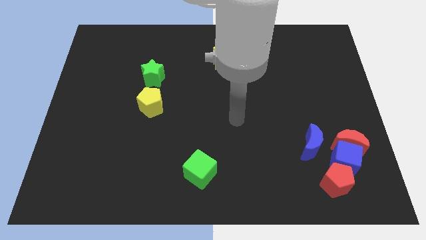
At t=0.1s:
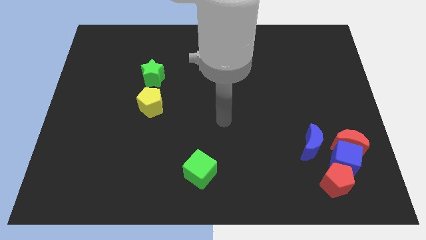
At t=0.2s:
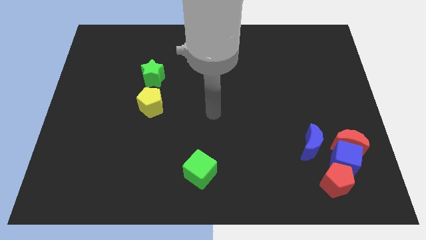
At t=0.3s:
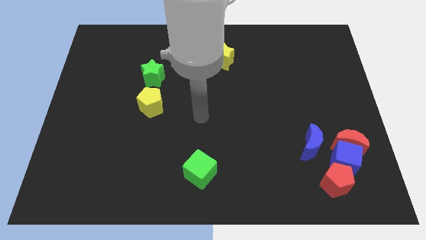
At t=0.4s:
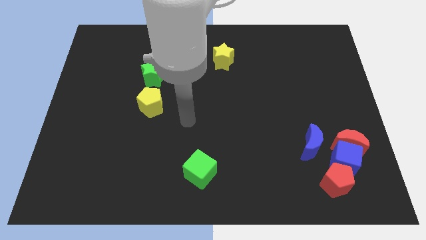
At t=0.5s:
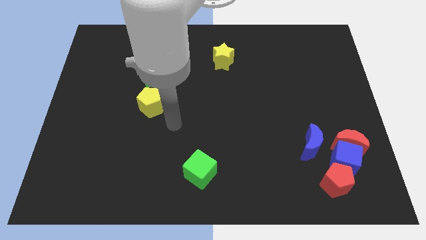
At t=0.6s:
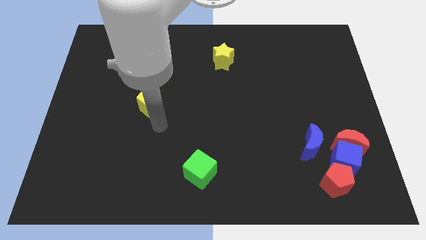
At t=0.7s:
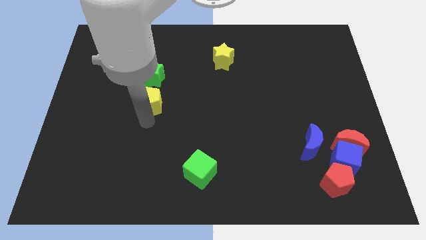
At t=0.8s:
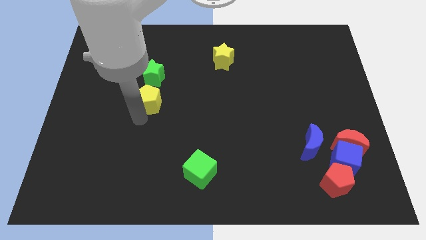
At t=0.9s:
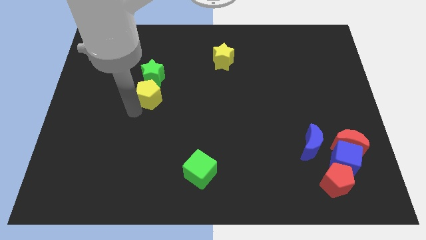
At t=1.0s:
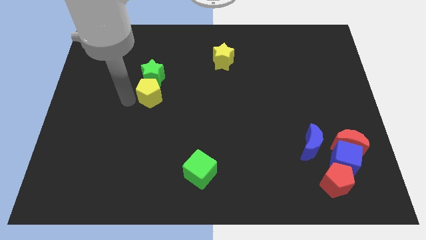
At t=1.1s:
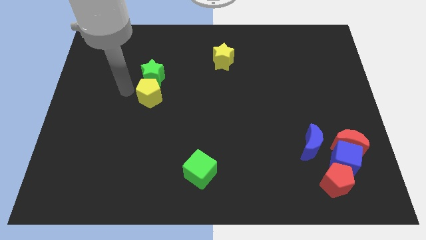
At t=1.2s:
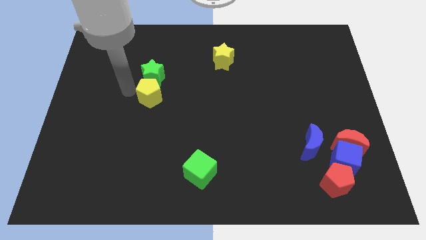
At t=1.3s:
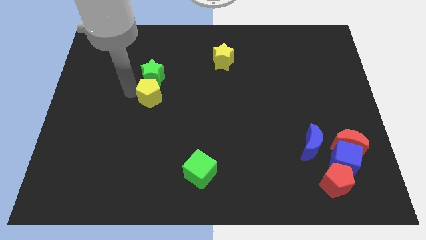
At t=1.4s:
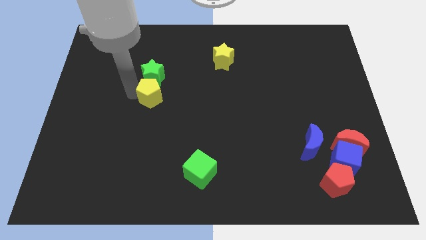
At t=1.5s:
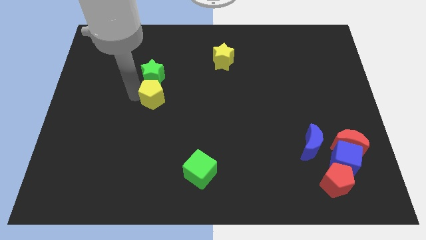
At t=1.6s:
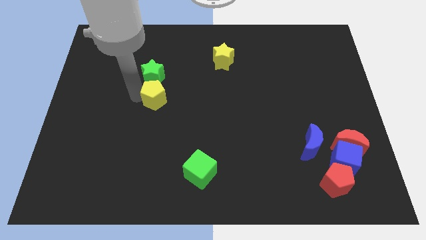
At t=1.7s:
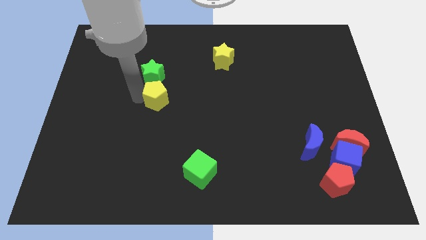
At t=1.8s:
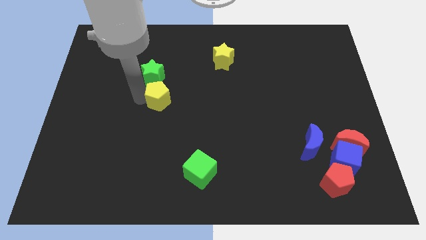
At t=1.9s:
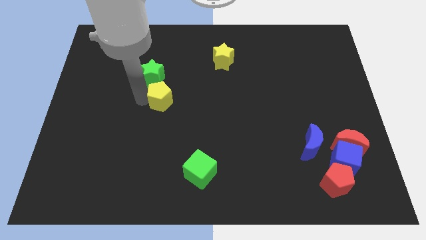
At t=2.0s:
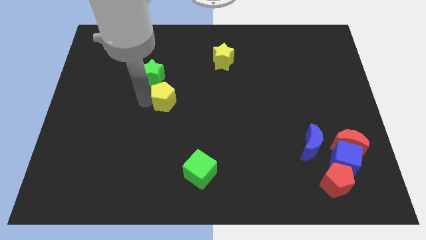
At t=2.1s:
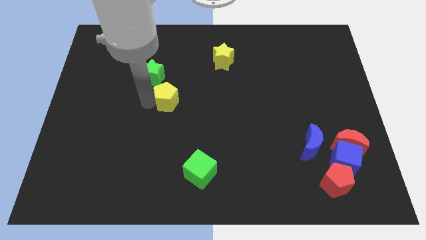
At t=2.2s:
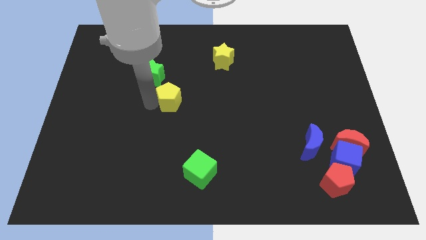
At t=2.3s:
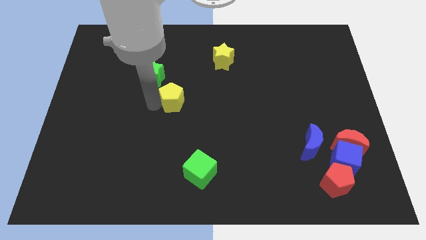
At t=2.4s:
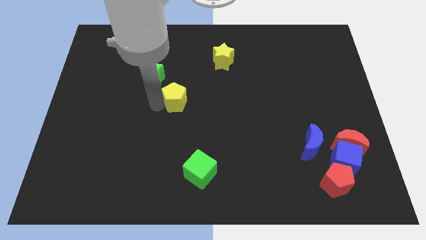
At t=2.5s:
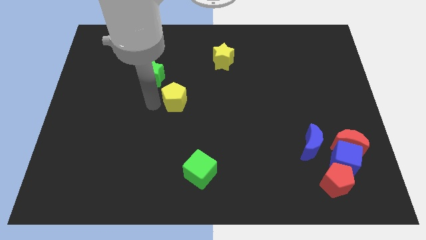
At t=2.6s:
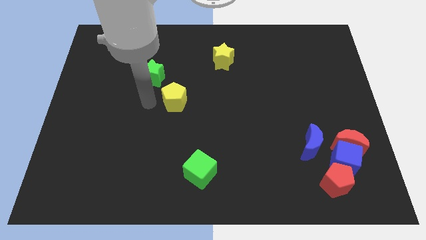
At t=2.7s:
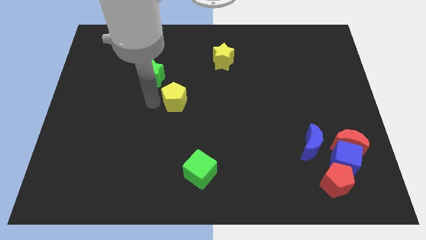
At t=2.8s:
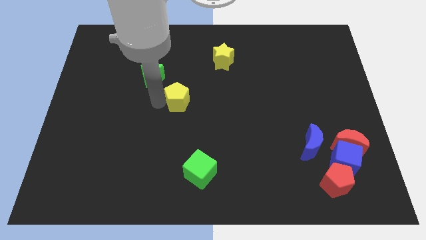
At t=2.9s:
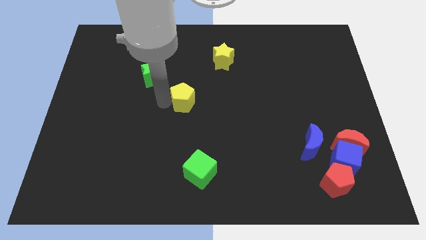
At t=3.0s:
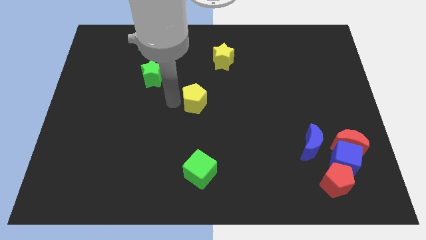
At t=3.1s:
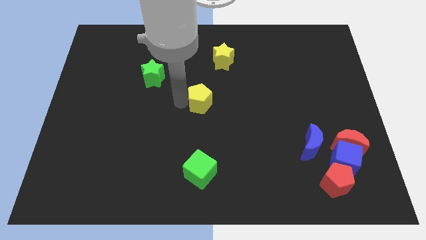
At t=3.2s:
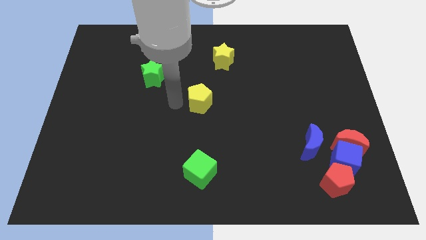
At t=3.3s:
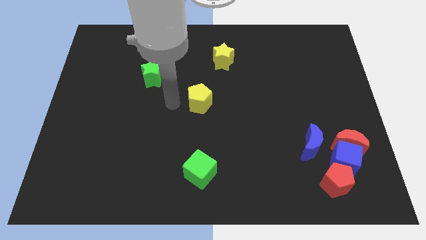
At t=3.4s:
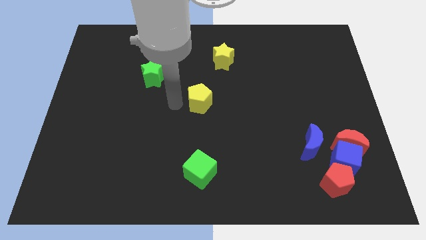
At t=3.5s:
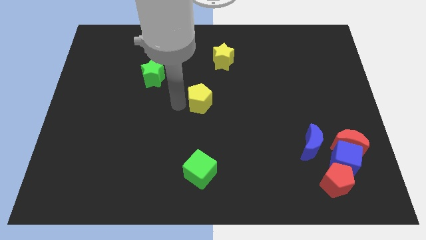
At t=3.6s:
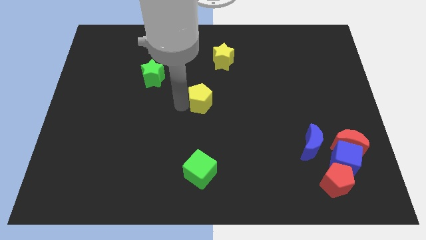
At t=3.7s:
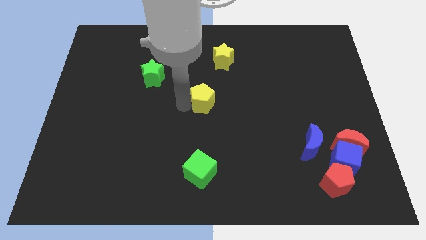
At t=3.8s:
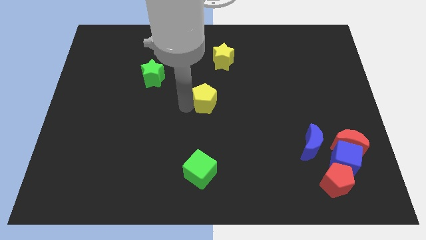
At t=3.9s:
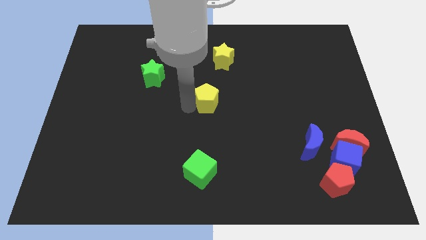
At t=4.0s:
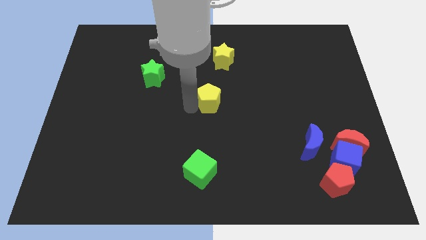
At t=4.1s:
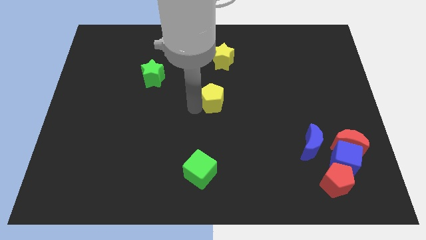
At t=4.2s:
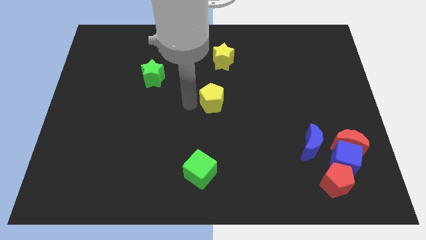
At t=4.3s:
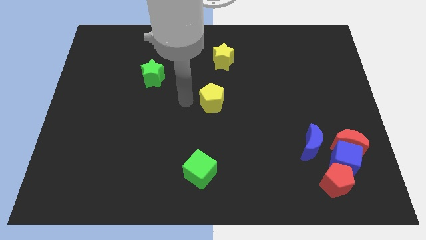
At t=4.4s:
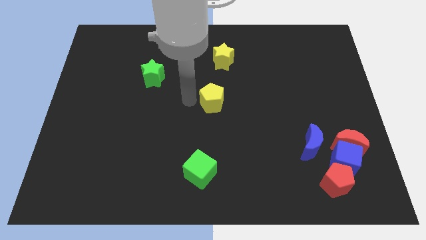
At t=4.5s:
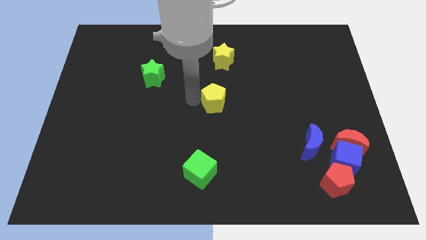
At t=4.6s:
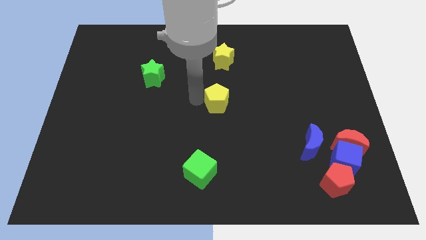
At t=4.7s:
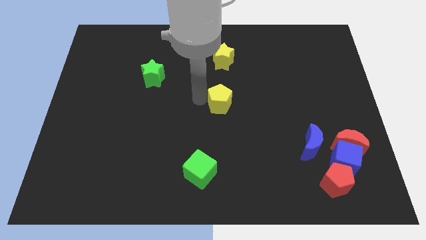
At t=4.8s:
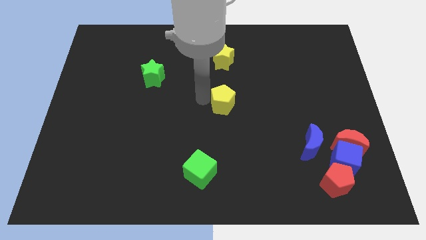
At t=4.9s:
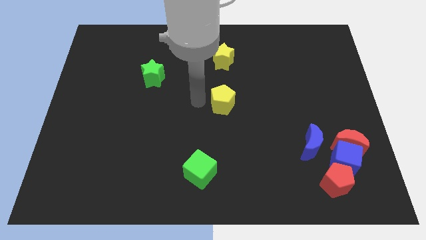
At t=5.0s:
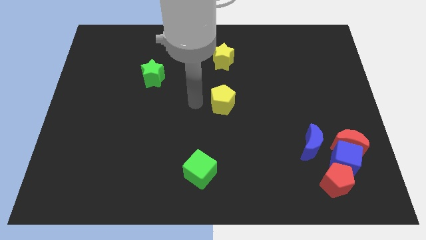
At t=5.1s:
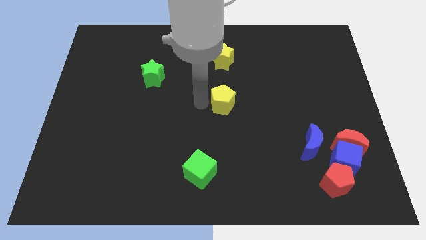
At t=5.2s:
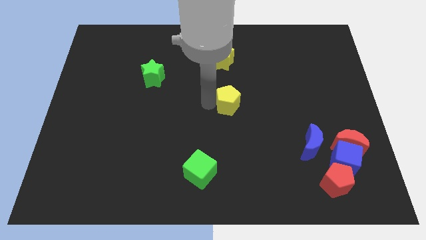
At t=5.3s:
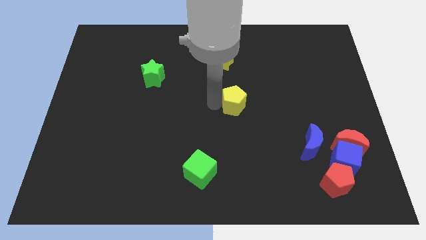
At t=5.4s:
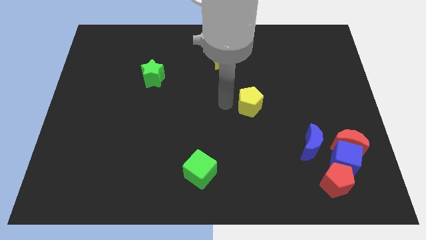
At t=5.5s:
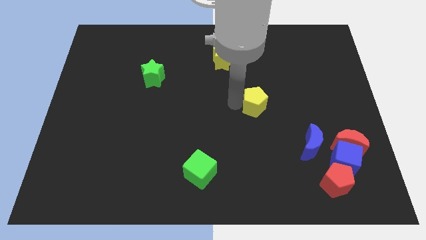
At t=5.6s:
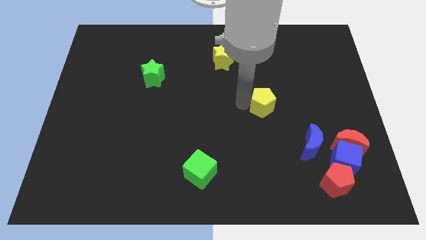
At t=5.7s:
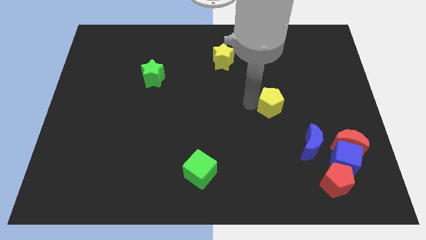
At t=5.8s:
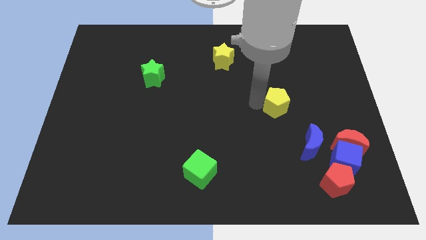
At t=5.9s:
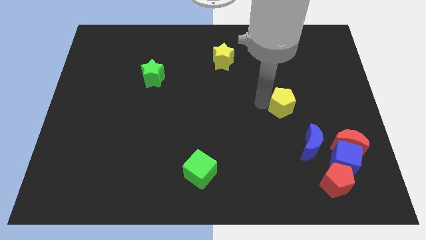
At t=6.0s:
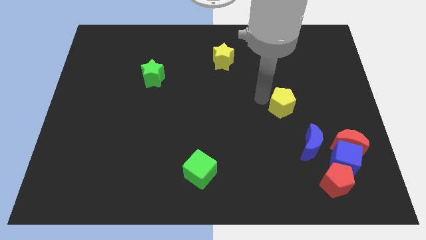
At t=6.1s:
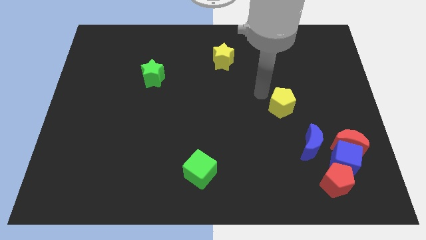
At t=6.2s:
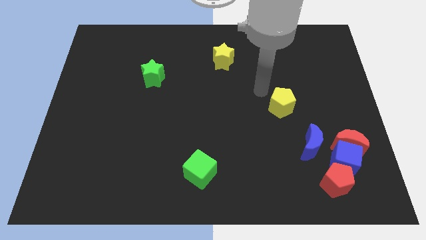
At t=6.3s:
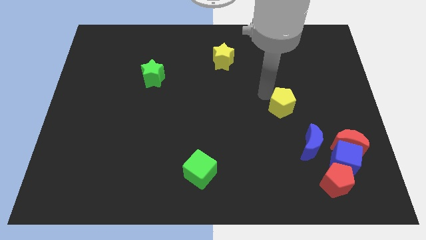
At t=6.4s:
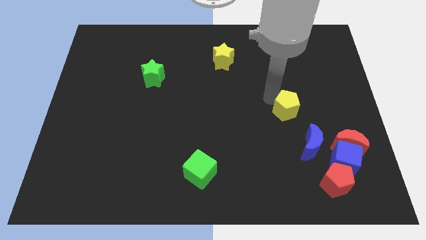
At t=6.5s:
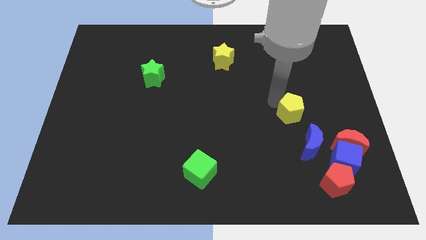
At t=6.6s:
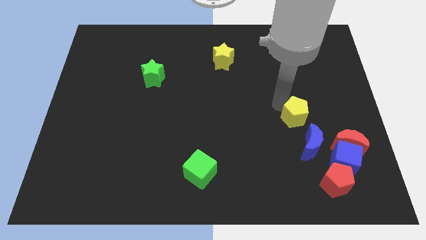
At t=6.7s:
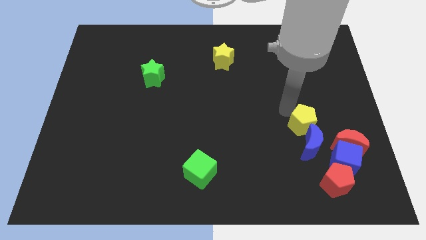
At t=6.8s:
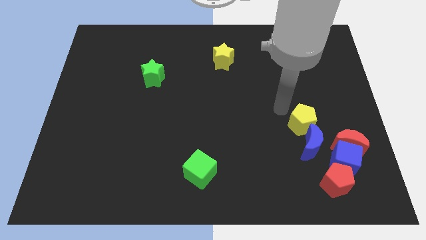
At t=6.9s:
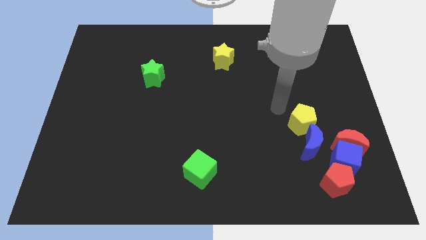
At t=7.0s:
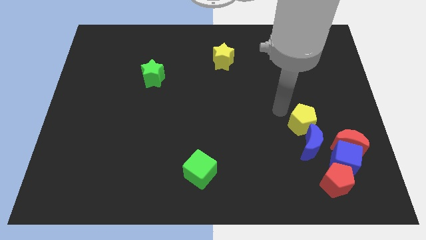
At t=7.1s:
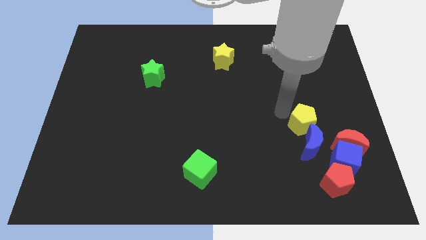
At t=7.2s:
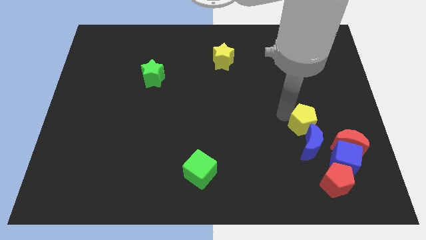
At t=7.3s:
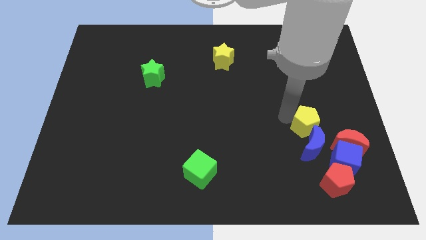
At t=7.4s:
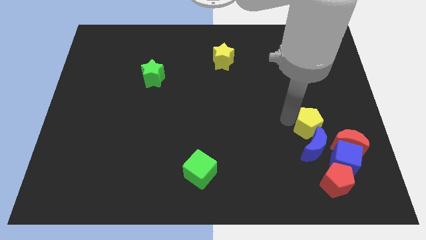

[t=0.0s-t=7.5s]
push the yellow pentagon to the top of the red pentagon
